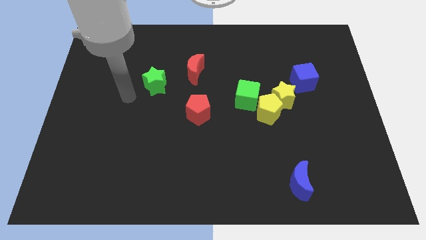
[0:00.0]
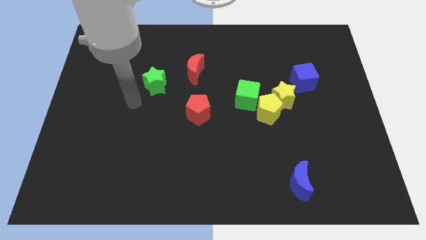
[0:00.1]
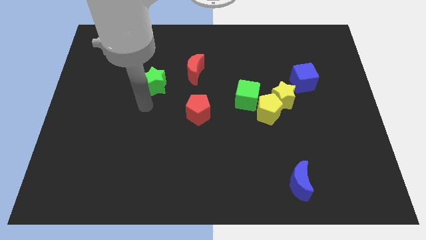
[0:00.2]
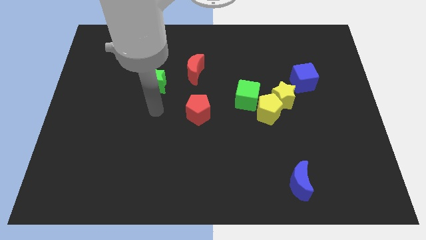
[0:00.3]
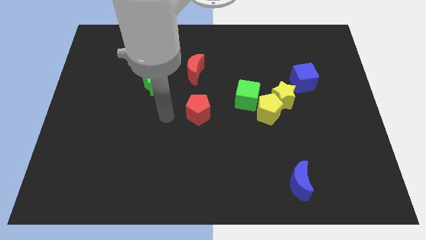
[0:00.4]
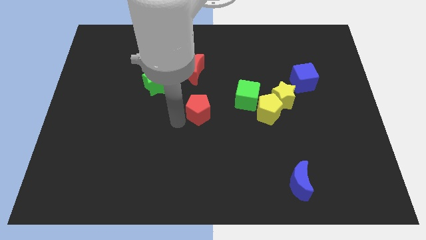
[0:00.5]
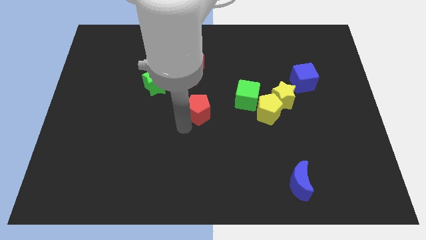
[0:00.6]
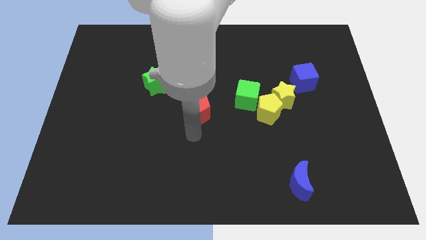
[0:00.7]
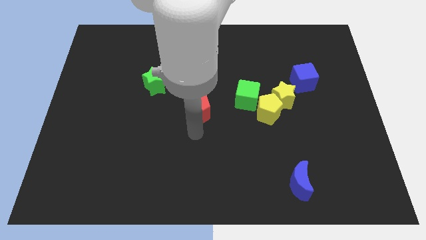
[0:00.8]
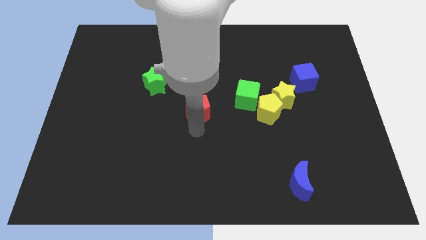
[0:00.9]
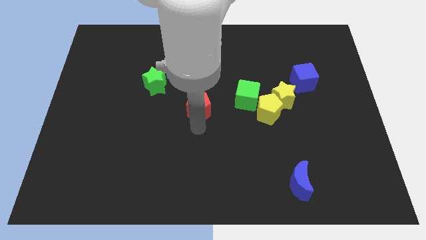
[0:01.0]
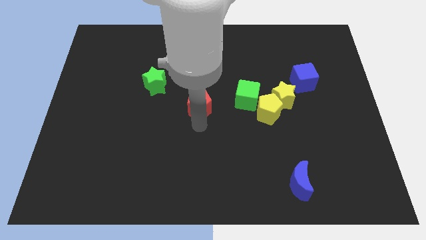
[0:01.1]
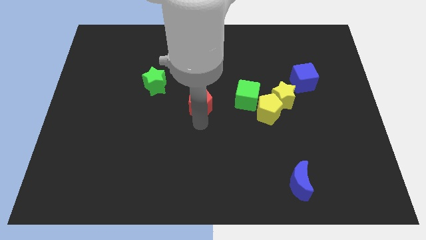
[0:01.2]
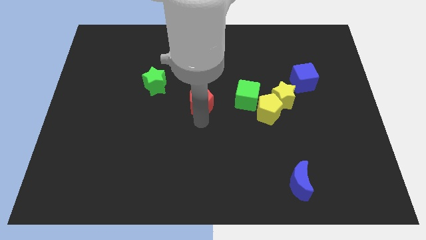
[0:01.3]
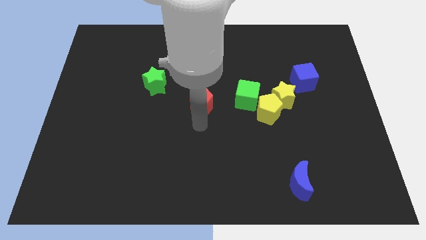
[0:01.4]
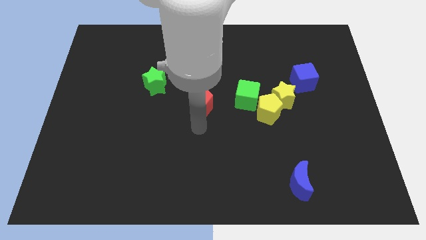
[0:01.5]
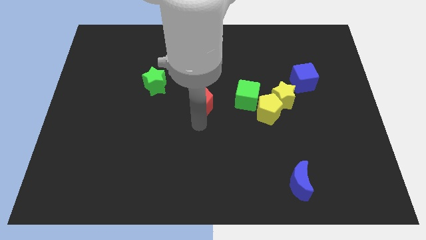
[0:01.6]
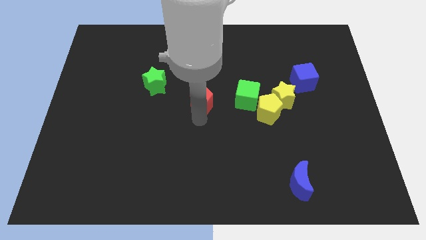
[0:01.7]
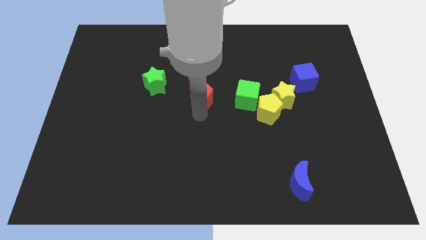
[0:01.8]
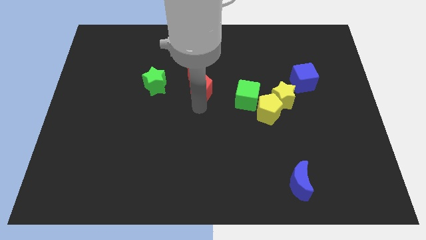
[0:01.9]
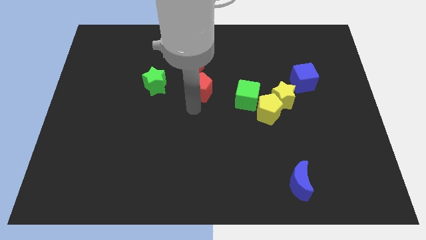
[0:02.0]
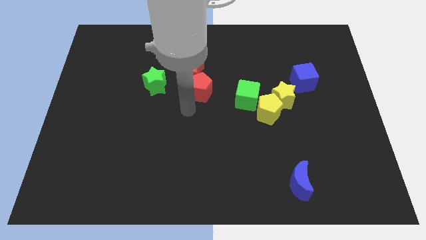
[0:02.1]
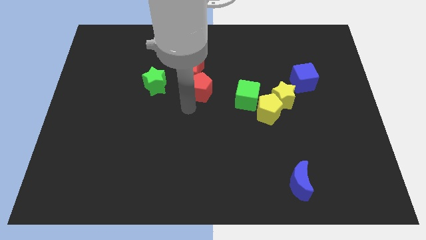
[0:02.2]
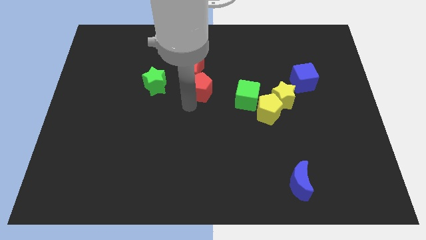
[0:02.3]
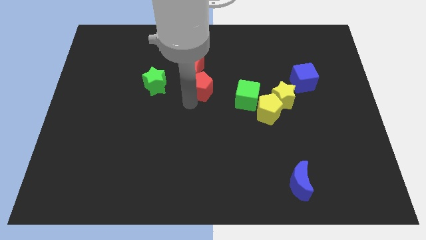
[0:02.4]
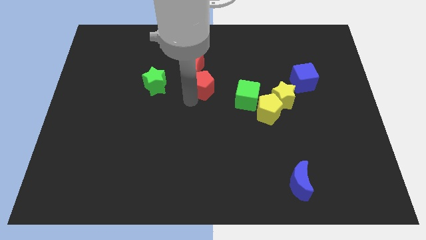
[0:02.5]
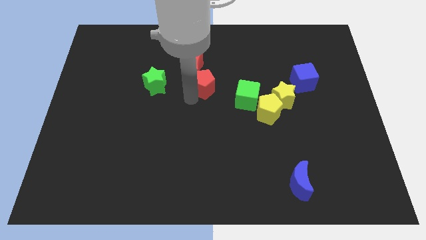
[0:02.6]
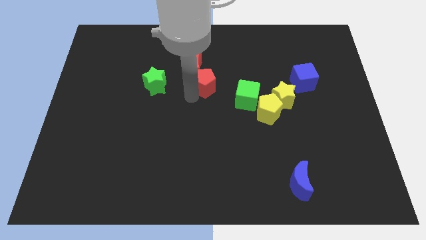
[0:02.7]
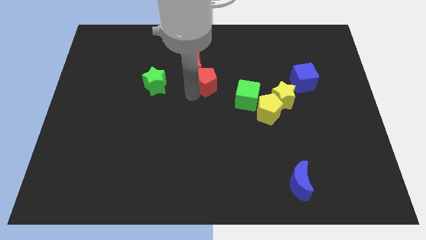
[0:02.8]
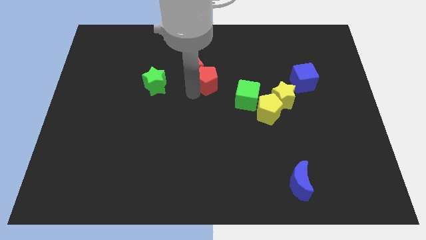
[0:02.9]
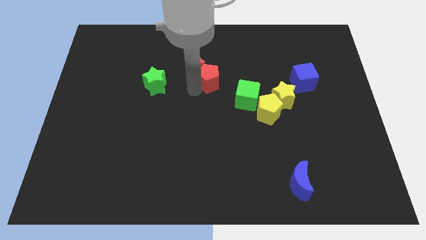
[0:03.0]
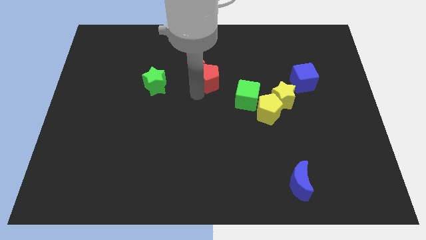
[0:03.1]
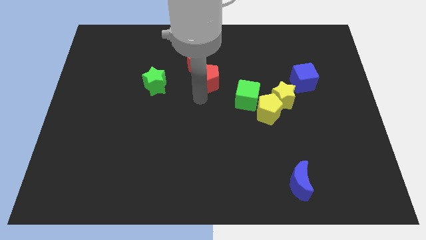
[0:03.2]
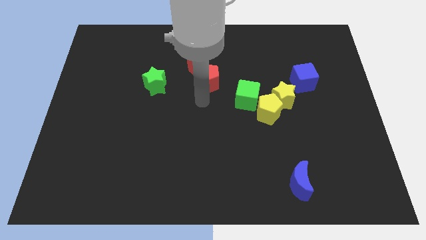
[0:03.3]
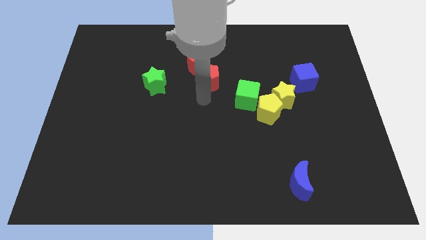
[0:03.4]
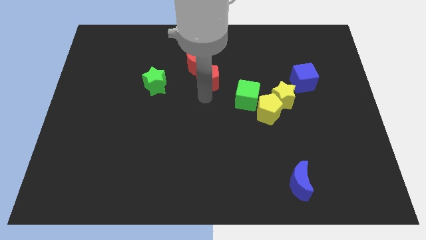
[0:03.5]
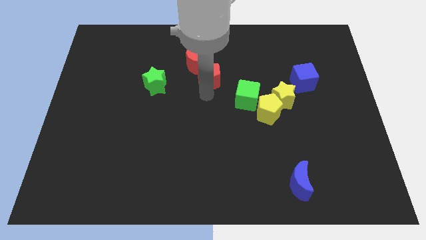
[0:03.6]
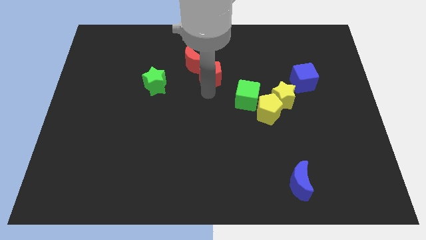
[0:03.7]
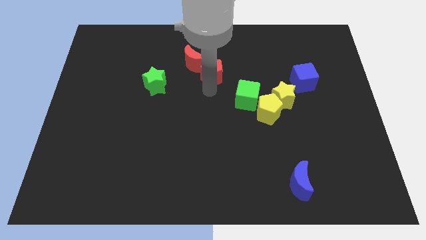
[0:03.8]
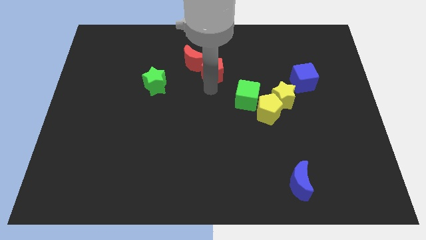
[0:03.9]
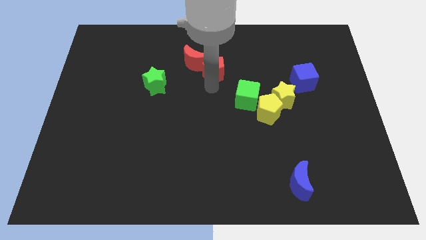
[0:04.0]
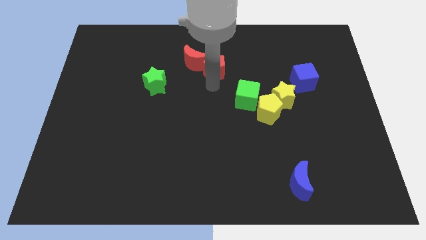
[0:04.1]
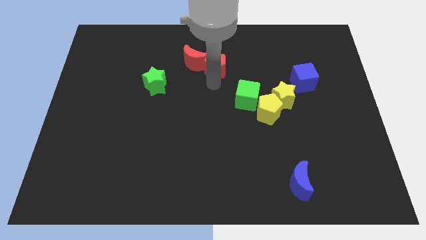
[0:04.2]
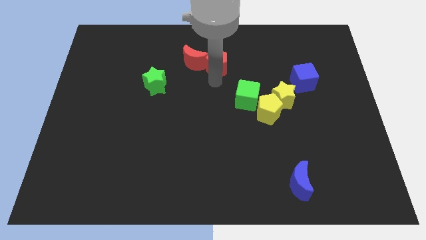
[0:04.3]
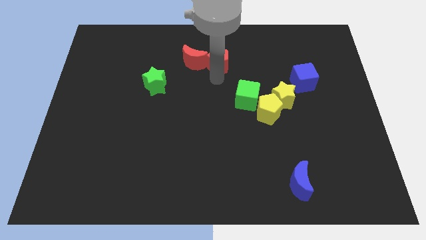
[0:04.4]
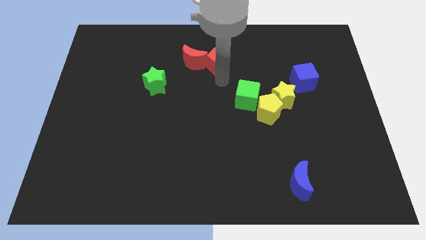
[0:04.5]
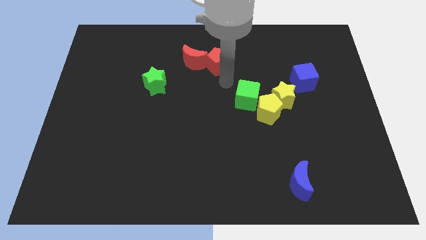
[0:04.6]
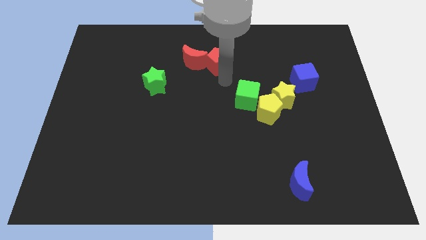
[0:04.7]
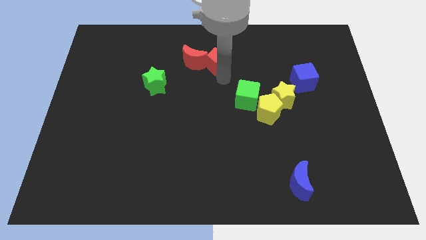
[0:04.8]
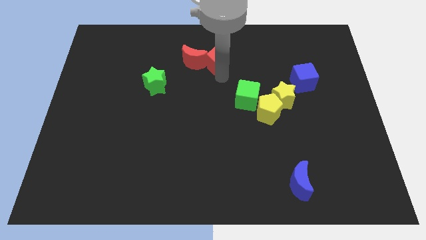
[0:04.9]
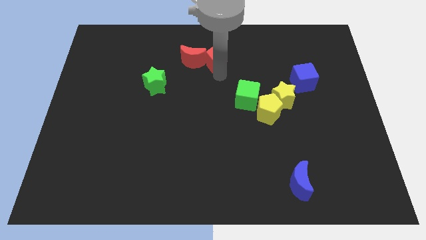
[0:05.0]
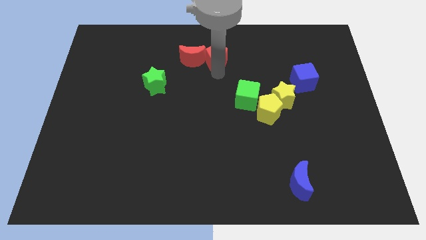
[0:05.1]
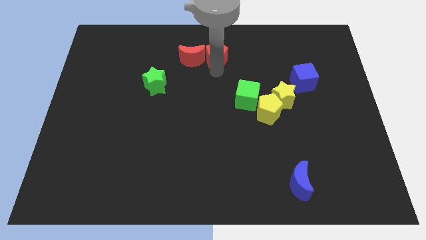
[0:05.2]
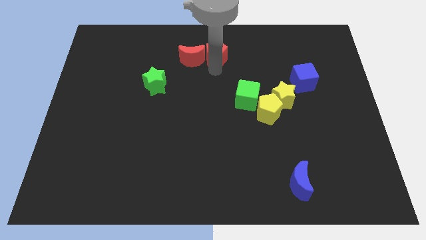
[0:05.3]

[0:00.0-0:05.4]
slide the red pentagon to the towards your base

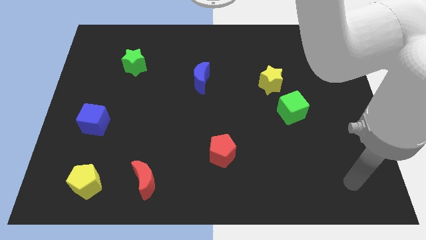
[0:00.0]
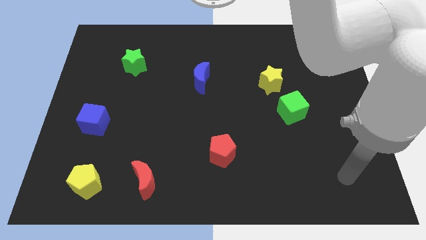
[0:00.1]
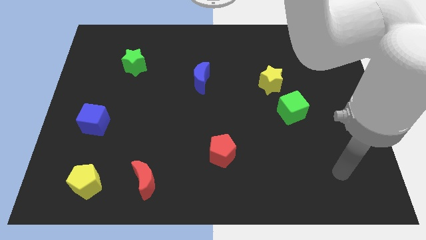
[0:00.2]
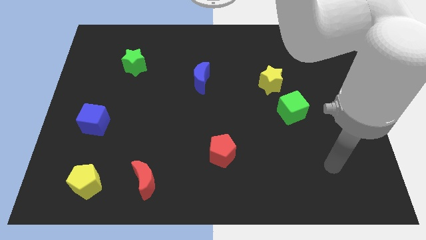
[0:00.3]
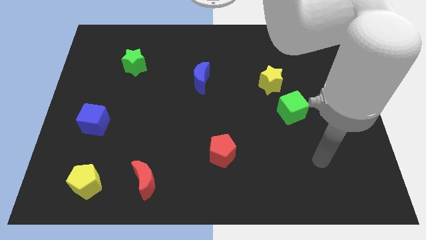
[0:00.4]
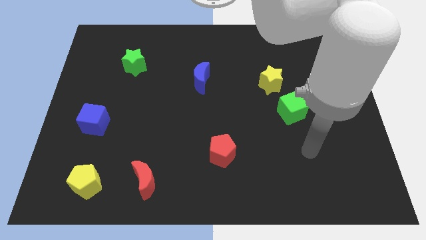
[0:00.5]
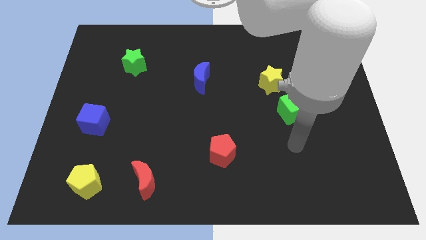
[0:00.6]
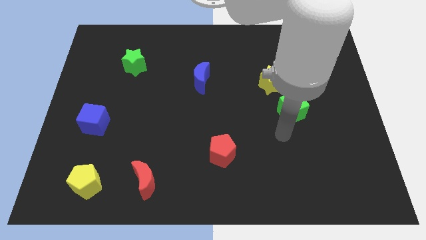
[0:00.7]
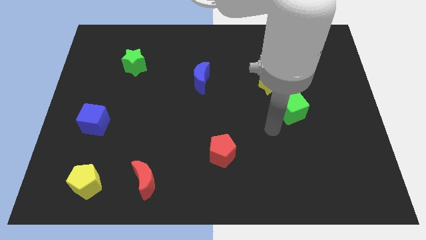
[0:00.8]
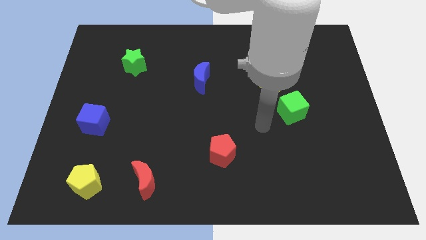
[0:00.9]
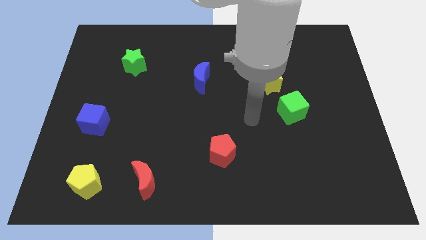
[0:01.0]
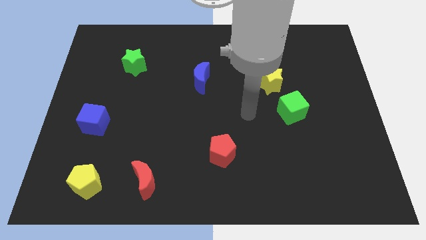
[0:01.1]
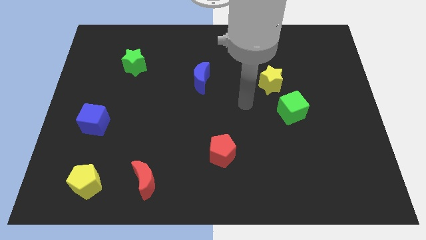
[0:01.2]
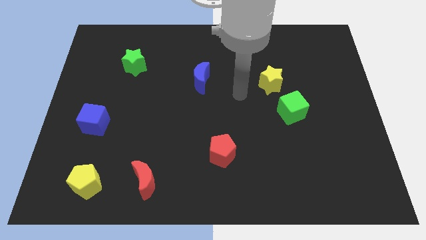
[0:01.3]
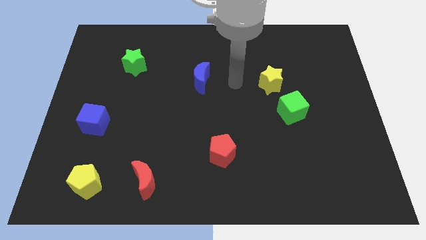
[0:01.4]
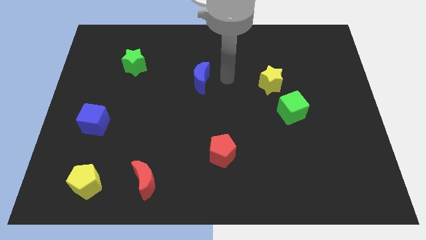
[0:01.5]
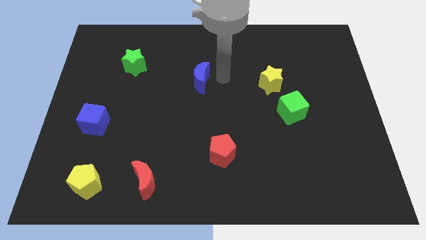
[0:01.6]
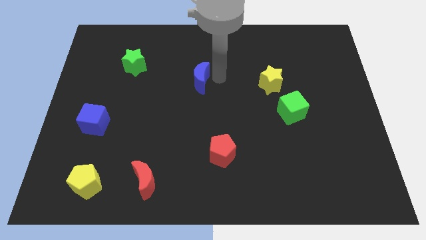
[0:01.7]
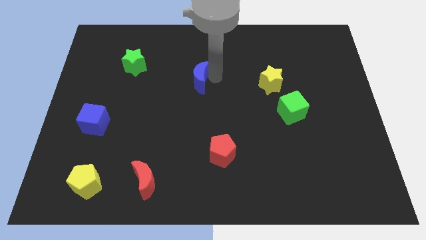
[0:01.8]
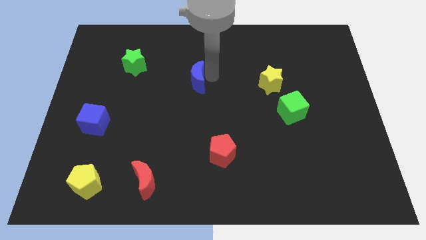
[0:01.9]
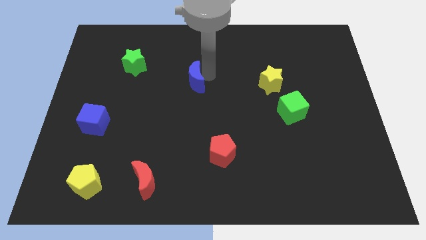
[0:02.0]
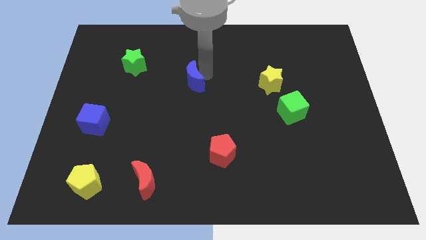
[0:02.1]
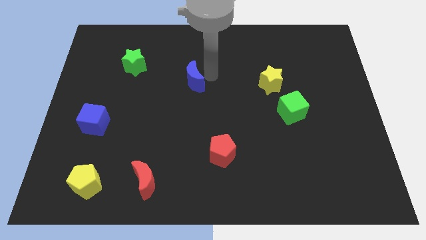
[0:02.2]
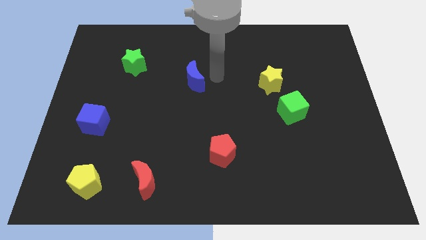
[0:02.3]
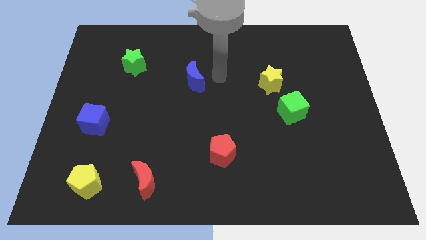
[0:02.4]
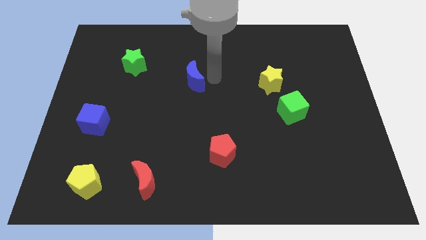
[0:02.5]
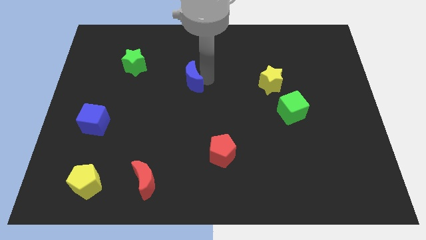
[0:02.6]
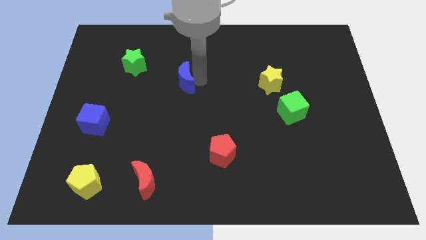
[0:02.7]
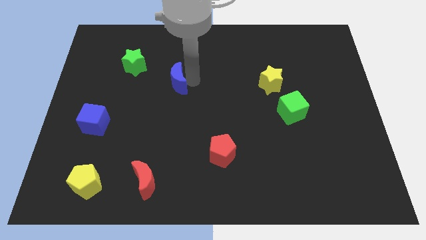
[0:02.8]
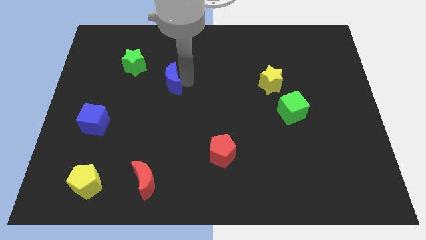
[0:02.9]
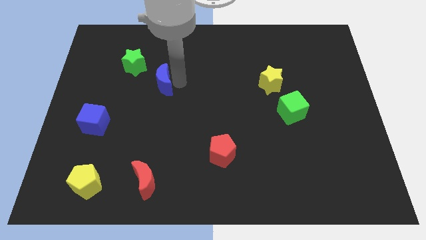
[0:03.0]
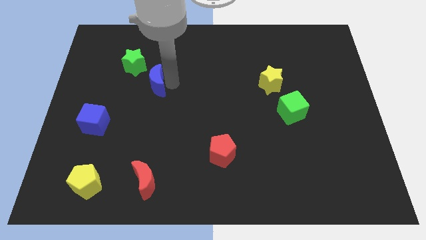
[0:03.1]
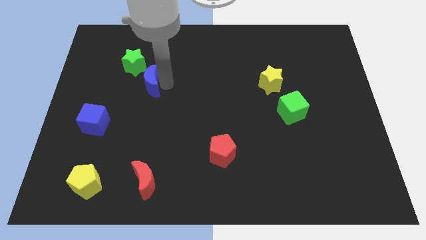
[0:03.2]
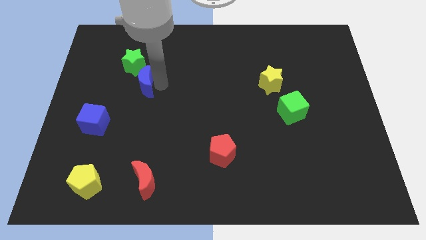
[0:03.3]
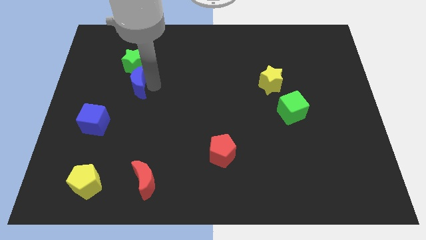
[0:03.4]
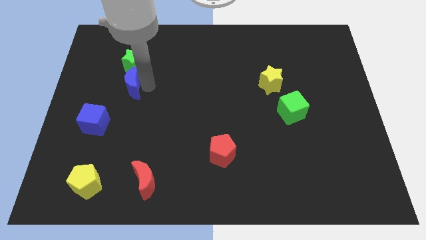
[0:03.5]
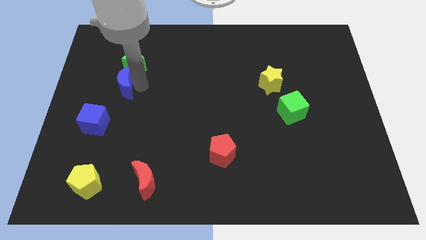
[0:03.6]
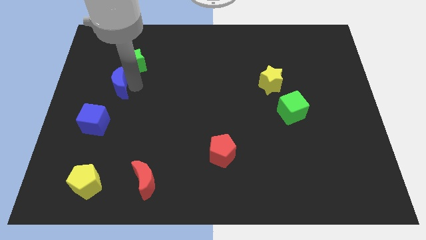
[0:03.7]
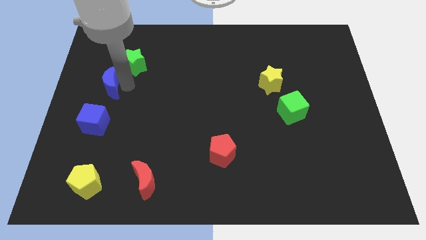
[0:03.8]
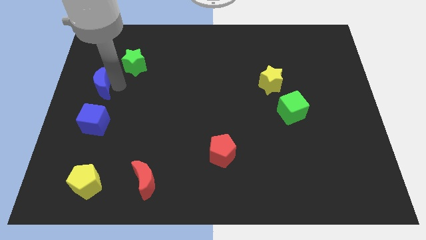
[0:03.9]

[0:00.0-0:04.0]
slide the blue moon to the center left
